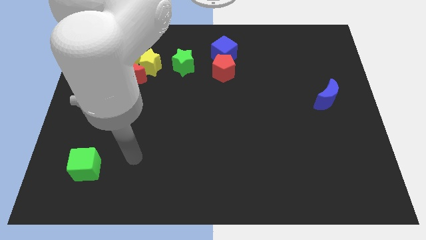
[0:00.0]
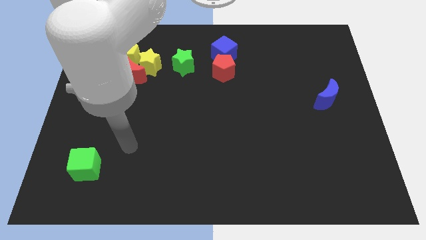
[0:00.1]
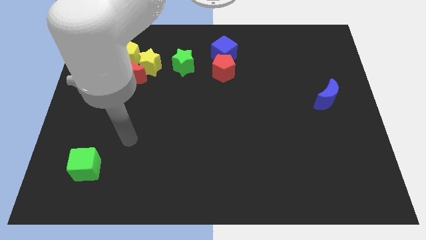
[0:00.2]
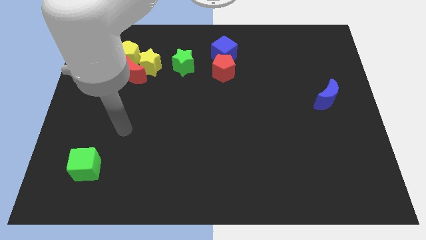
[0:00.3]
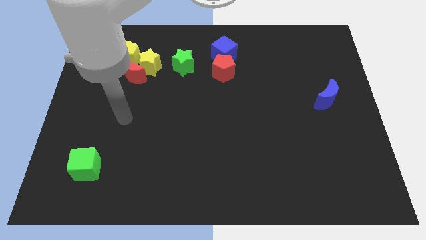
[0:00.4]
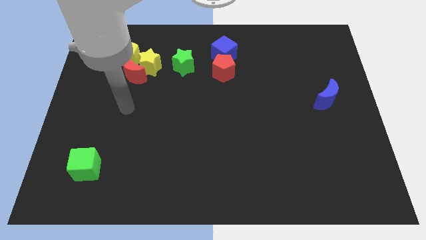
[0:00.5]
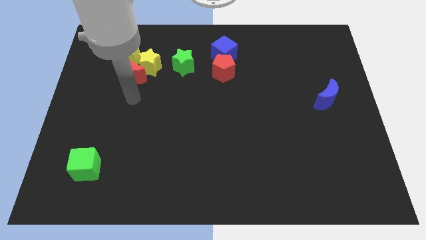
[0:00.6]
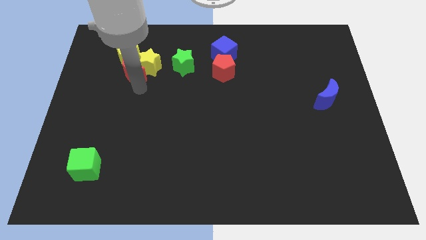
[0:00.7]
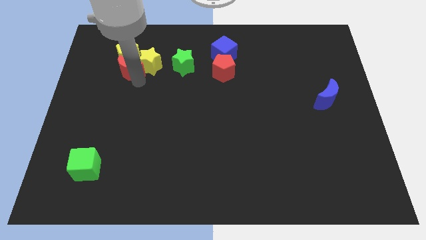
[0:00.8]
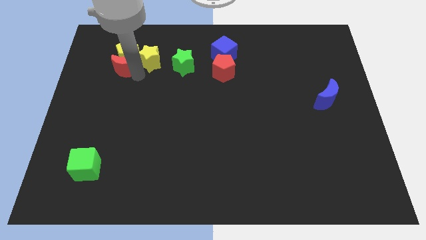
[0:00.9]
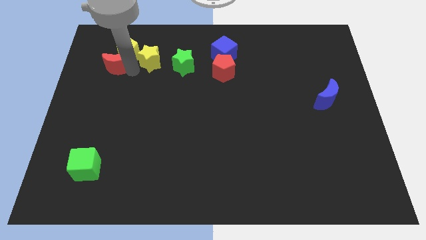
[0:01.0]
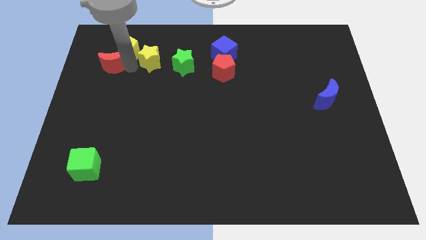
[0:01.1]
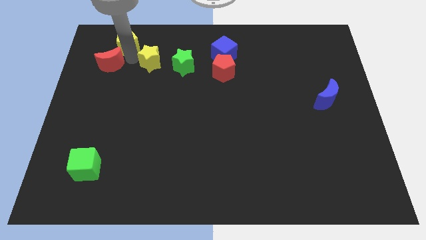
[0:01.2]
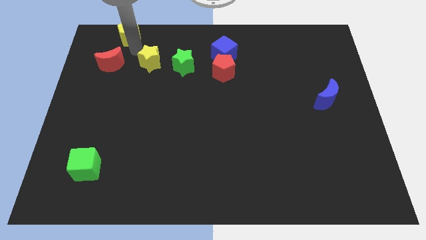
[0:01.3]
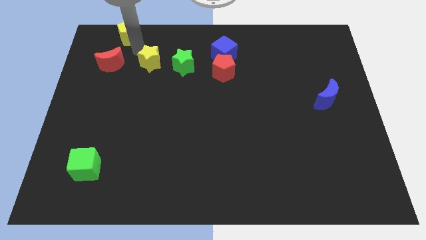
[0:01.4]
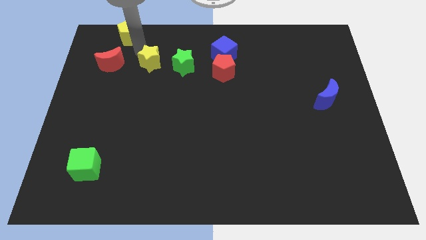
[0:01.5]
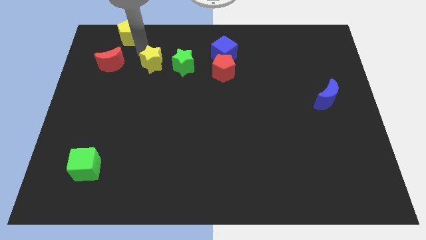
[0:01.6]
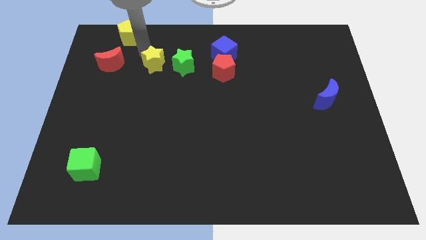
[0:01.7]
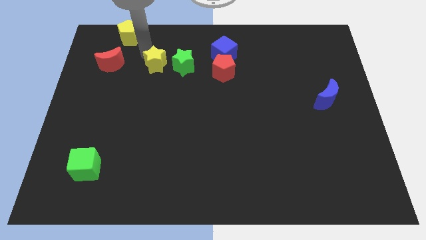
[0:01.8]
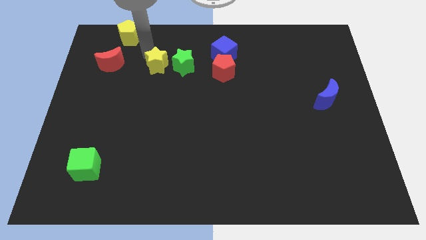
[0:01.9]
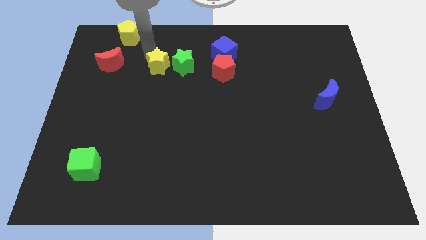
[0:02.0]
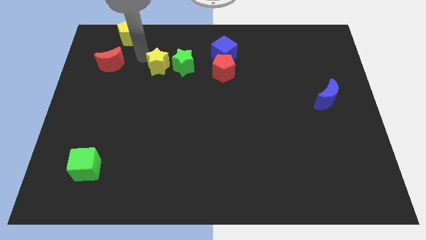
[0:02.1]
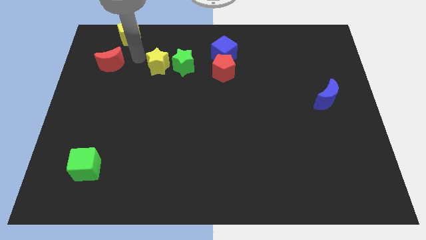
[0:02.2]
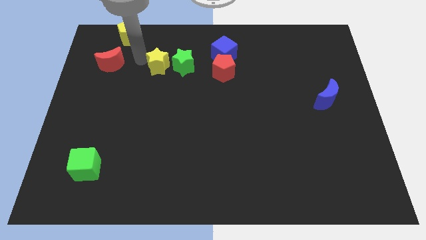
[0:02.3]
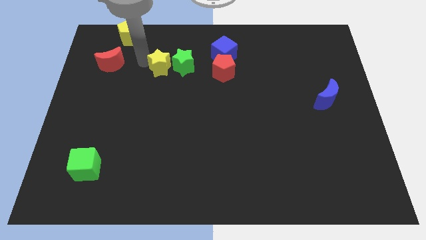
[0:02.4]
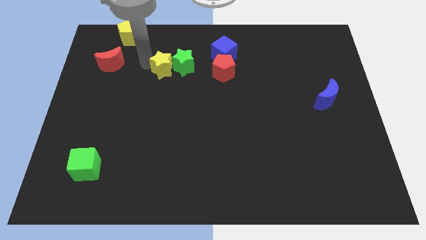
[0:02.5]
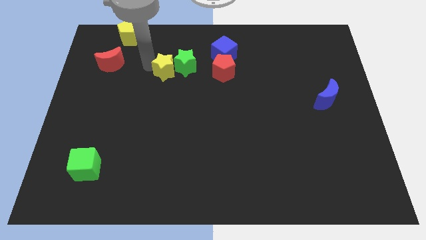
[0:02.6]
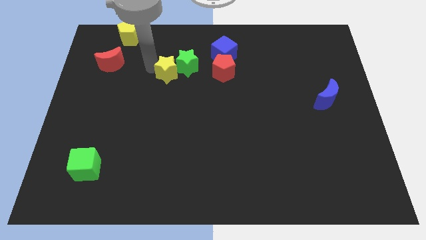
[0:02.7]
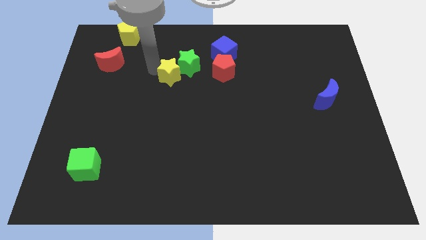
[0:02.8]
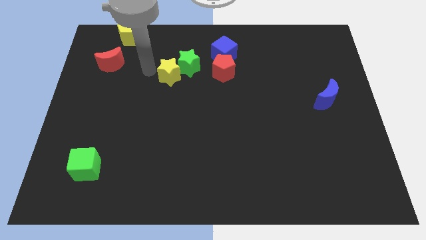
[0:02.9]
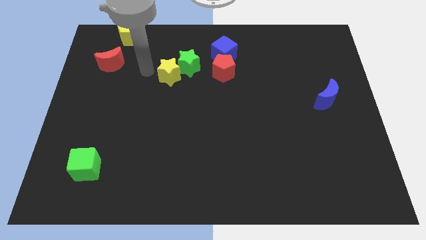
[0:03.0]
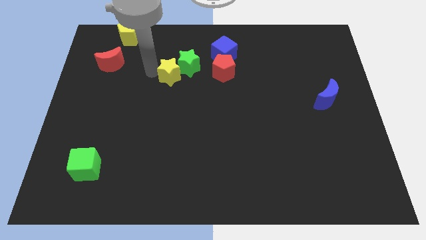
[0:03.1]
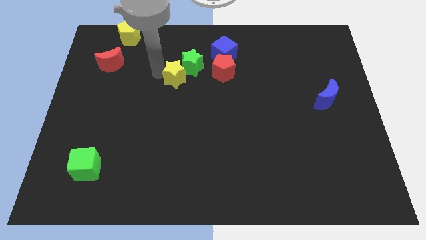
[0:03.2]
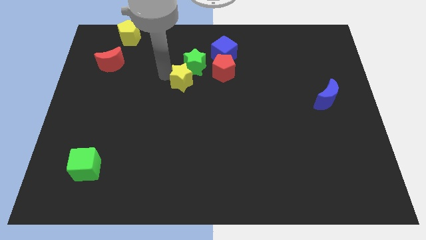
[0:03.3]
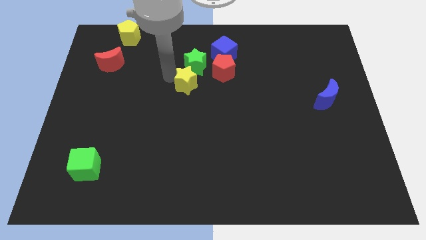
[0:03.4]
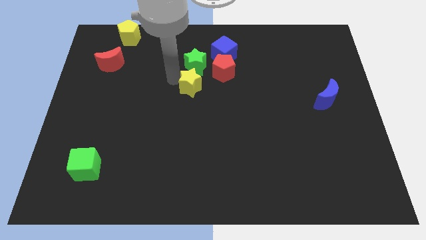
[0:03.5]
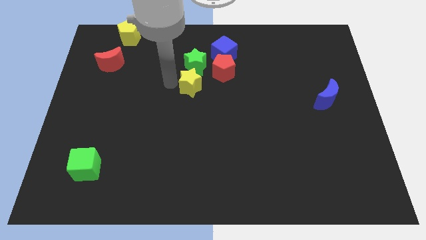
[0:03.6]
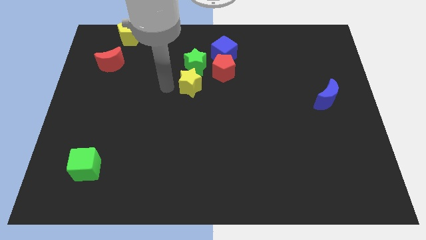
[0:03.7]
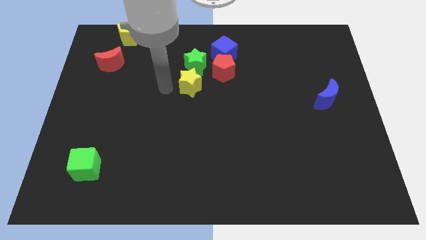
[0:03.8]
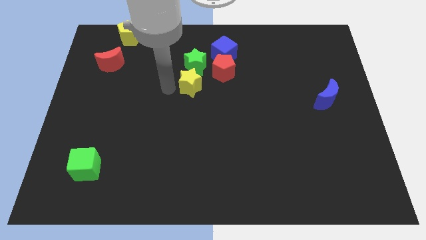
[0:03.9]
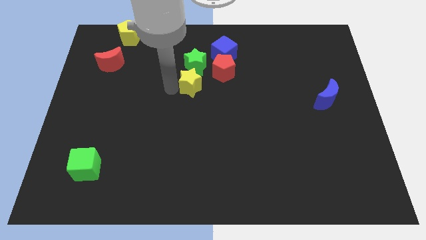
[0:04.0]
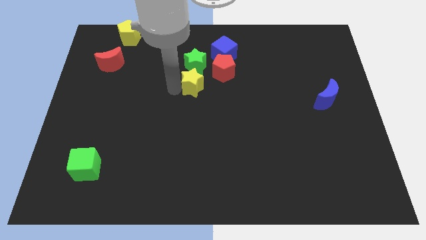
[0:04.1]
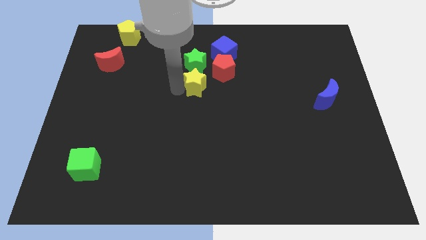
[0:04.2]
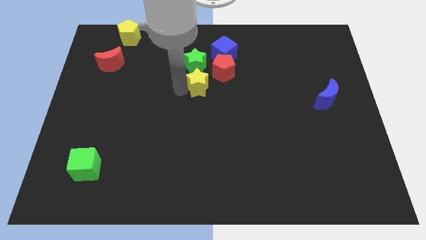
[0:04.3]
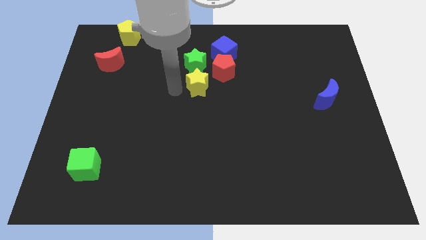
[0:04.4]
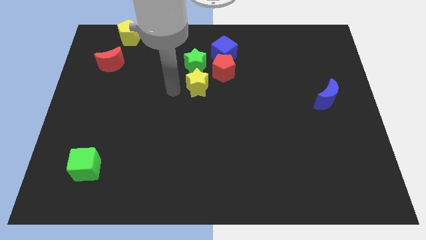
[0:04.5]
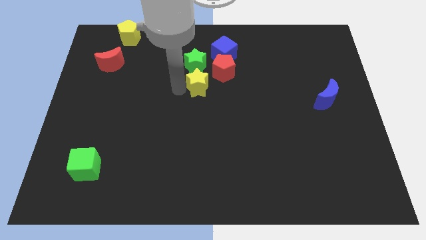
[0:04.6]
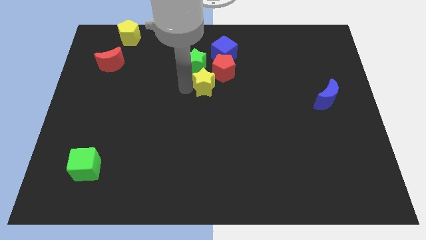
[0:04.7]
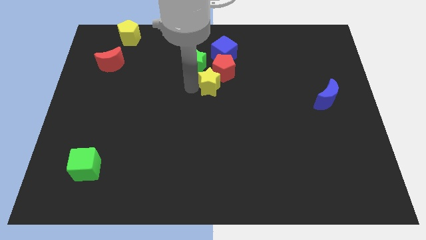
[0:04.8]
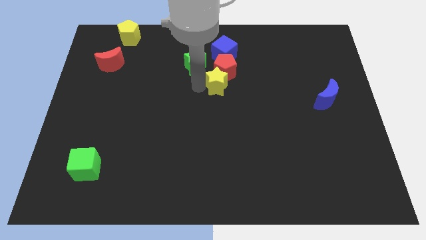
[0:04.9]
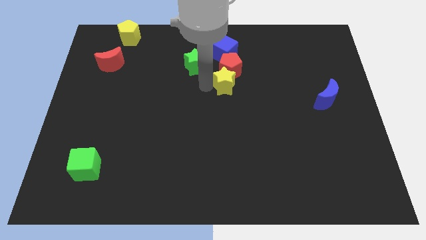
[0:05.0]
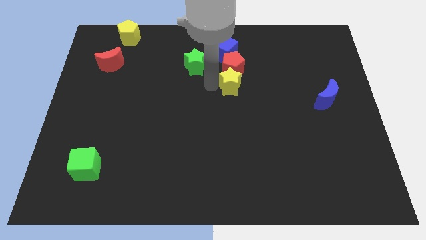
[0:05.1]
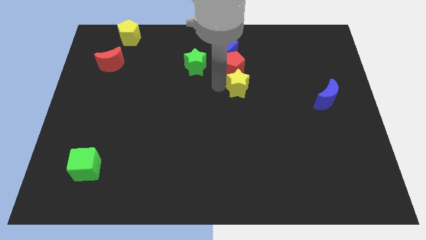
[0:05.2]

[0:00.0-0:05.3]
move the yellow star right

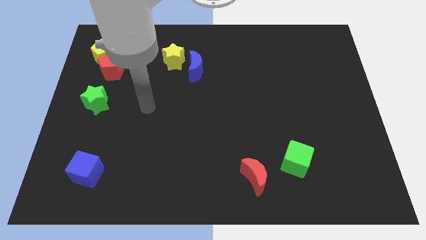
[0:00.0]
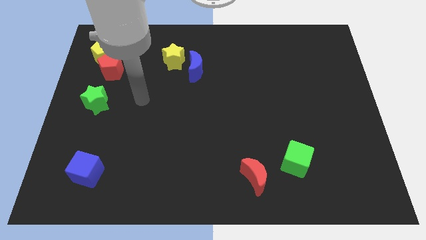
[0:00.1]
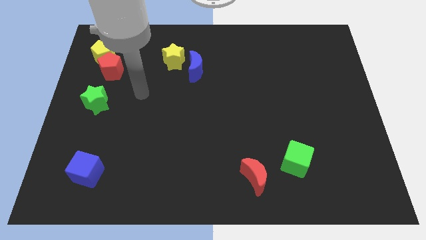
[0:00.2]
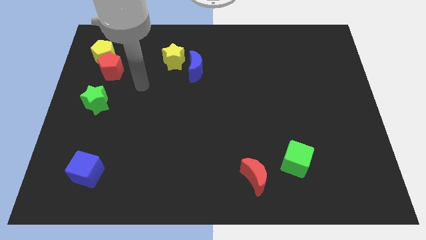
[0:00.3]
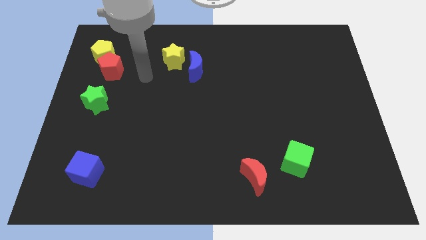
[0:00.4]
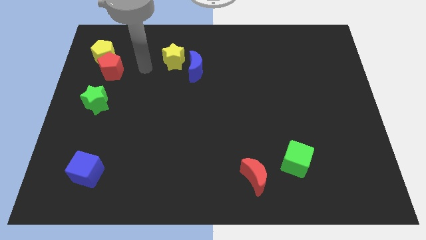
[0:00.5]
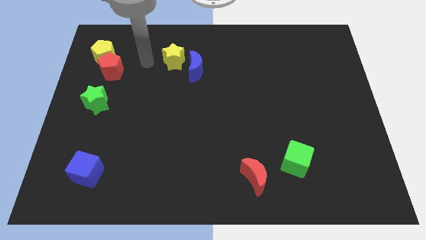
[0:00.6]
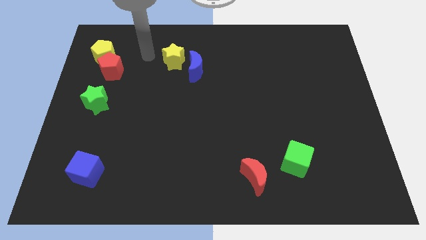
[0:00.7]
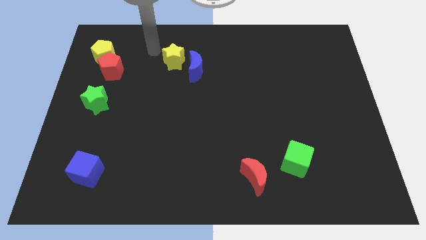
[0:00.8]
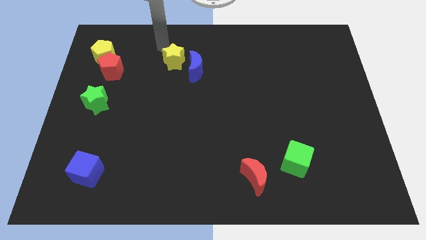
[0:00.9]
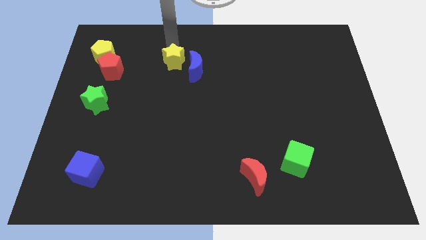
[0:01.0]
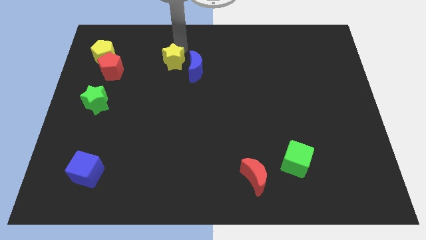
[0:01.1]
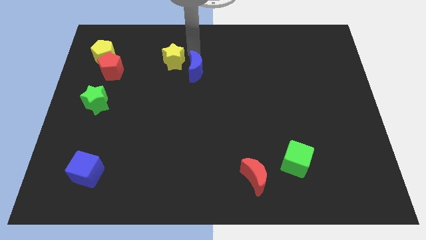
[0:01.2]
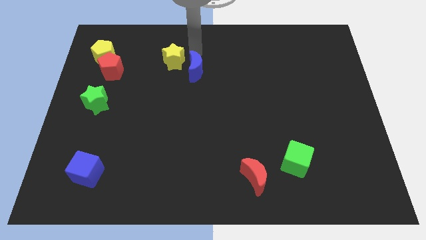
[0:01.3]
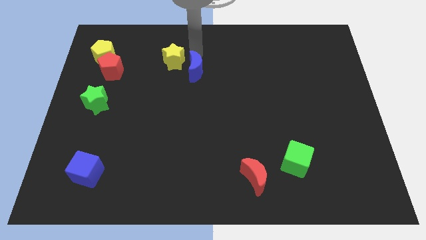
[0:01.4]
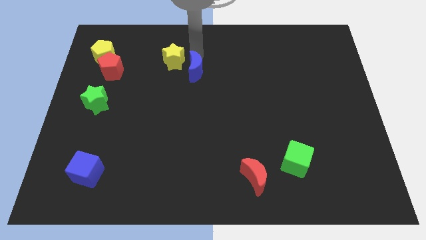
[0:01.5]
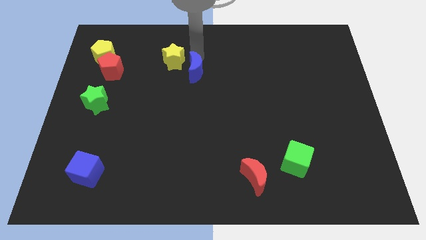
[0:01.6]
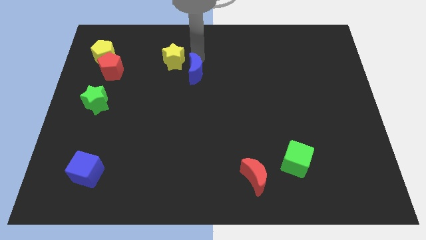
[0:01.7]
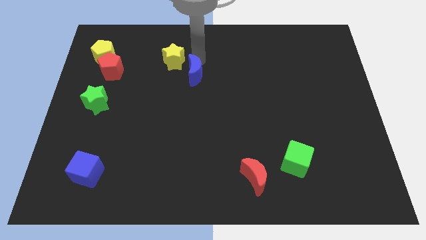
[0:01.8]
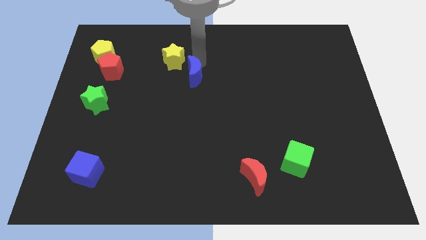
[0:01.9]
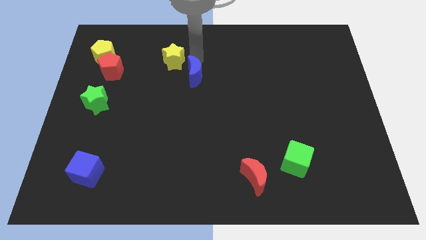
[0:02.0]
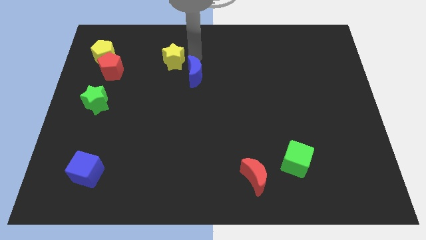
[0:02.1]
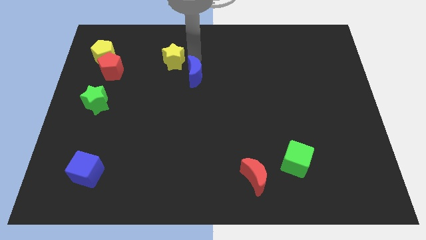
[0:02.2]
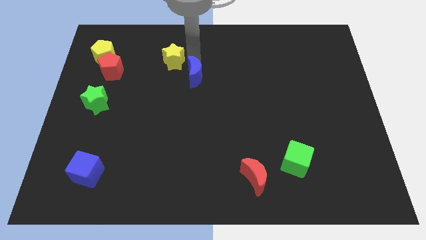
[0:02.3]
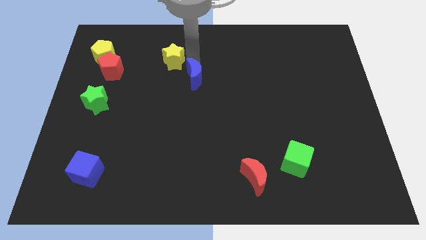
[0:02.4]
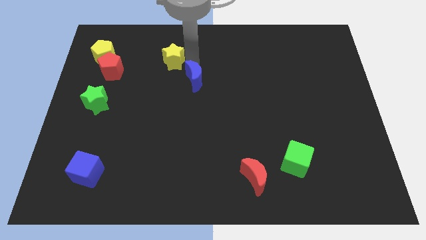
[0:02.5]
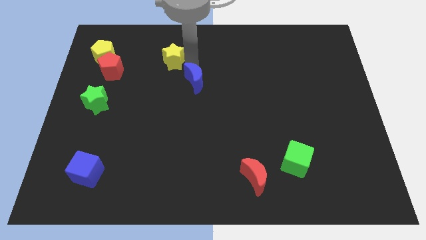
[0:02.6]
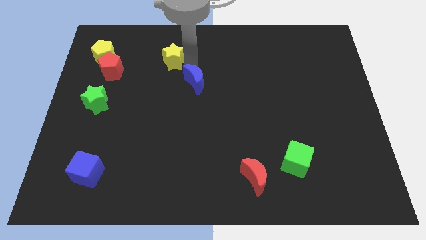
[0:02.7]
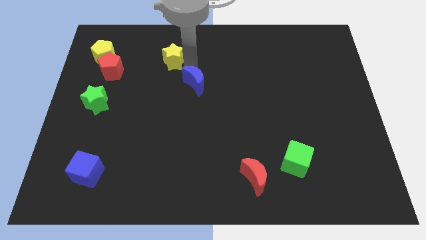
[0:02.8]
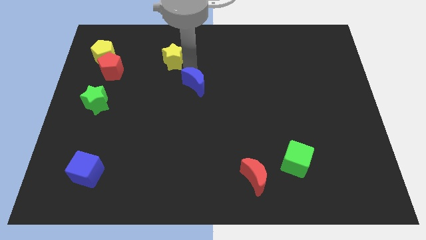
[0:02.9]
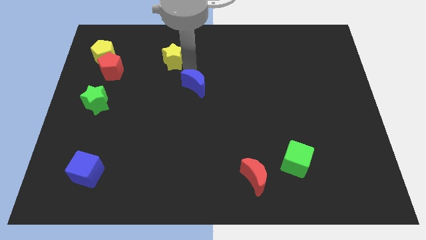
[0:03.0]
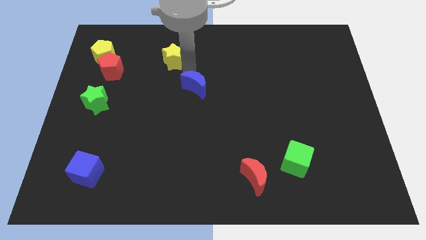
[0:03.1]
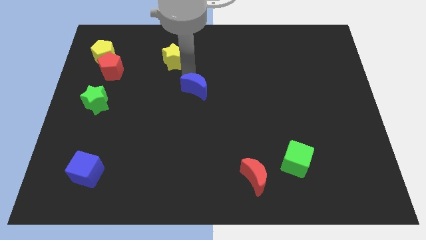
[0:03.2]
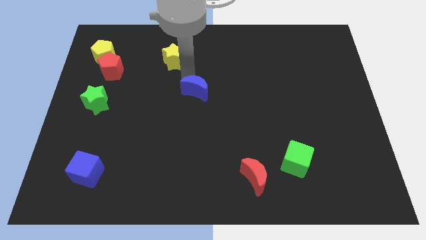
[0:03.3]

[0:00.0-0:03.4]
slide the blue moon downwards a little
